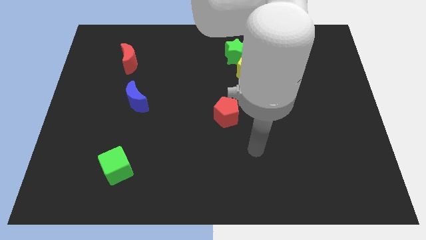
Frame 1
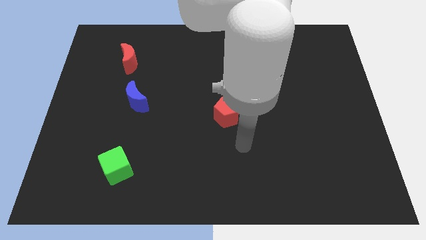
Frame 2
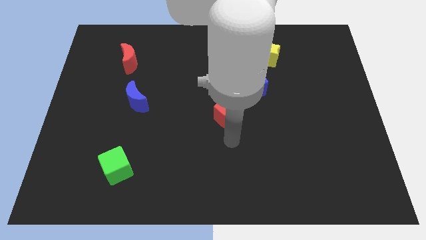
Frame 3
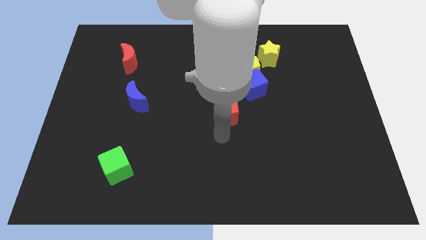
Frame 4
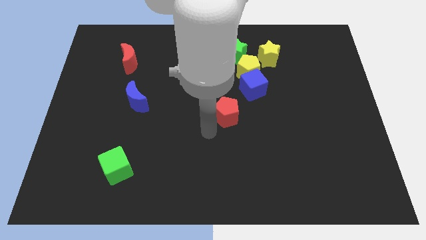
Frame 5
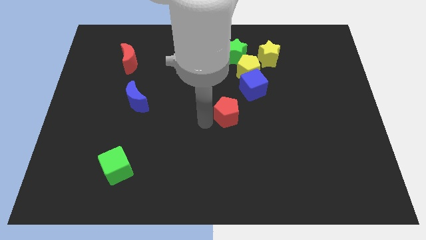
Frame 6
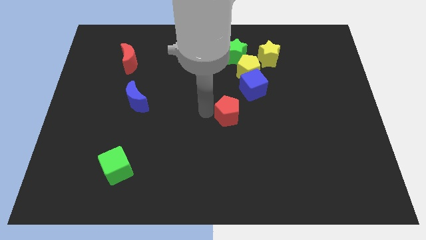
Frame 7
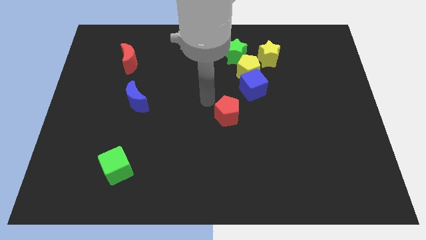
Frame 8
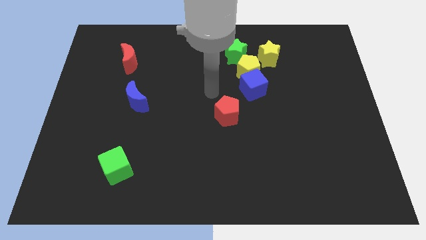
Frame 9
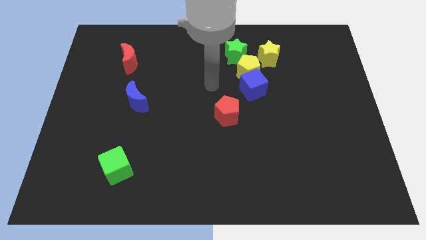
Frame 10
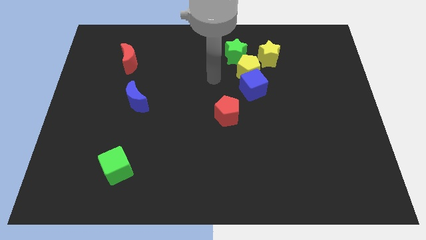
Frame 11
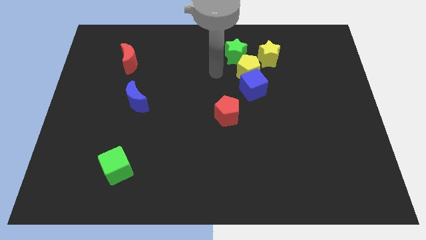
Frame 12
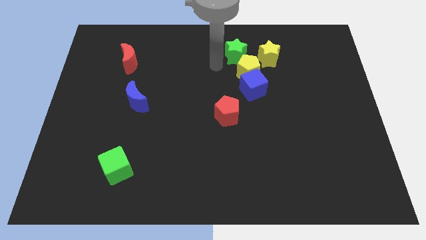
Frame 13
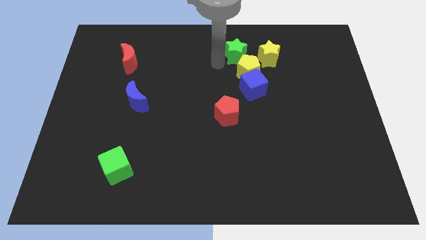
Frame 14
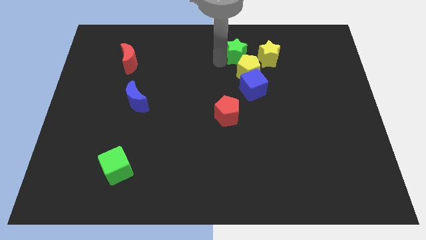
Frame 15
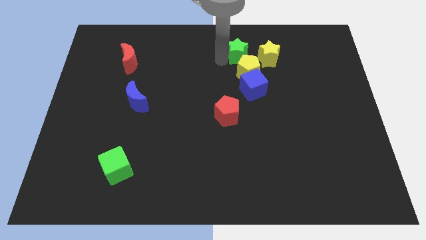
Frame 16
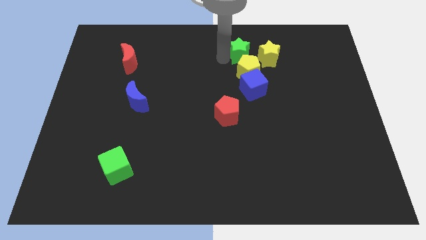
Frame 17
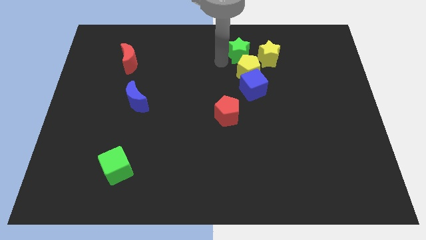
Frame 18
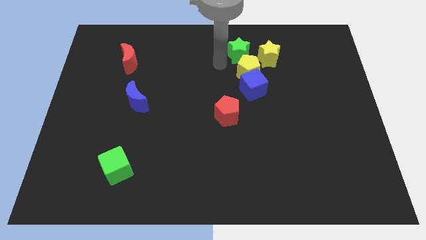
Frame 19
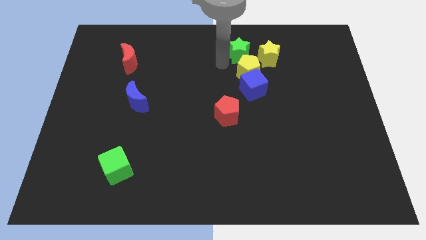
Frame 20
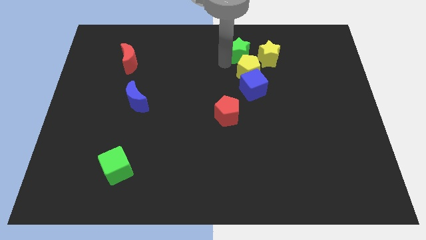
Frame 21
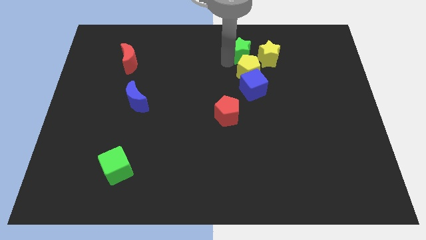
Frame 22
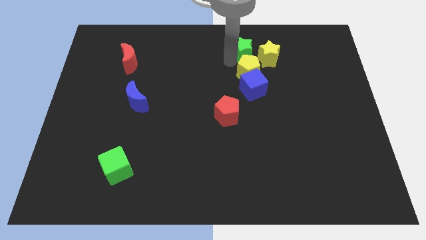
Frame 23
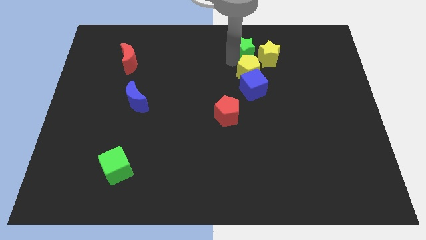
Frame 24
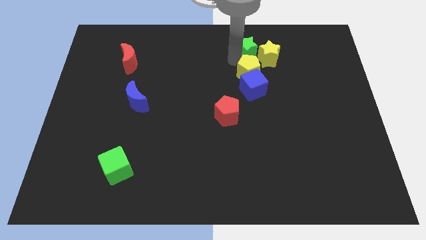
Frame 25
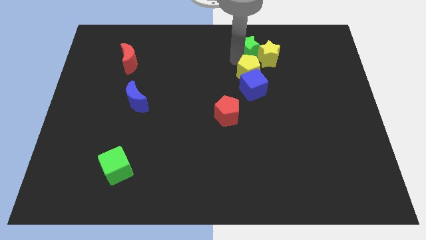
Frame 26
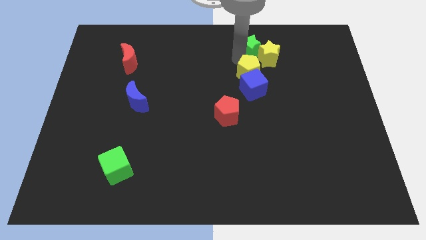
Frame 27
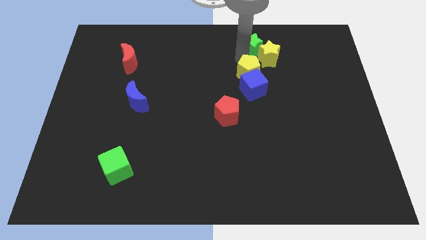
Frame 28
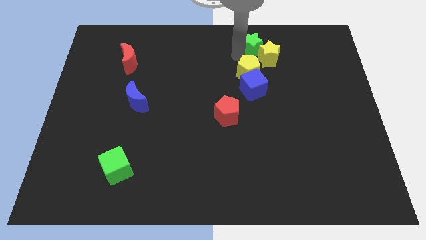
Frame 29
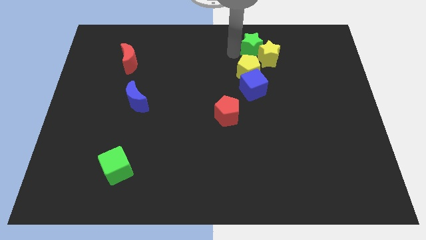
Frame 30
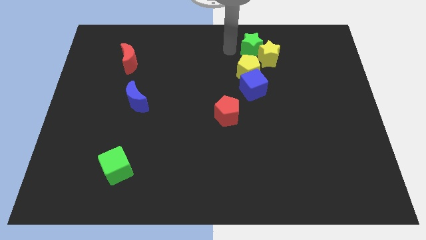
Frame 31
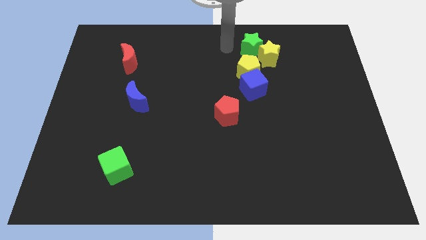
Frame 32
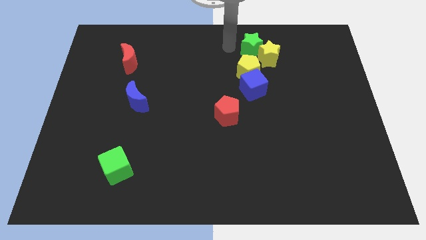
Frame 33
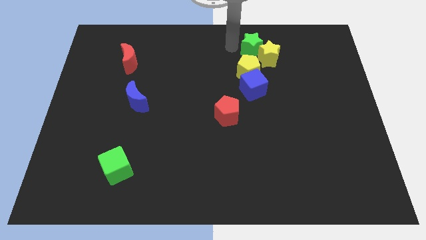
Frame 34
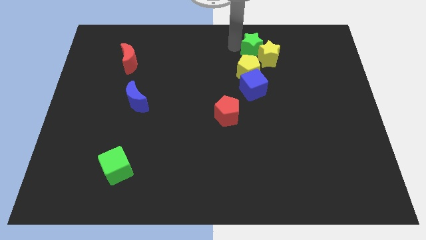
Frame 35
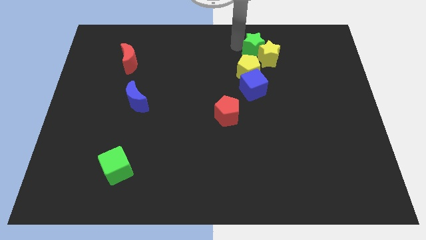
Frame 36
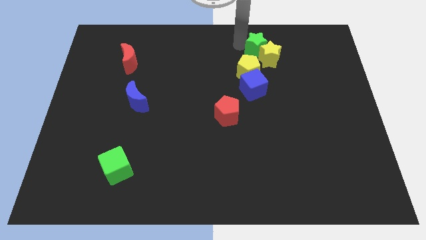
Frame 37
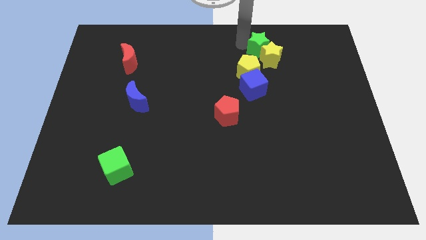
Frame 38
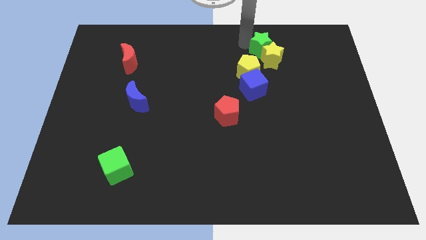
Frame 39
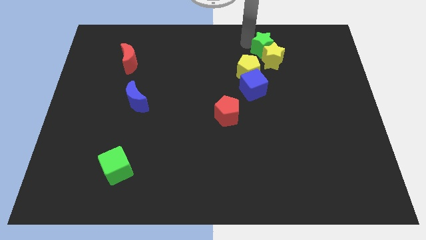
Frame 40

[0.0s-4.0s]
move the green star a little bit right

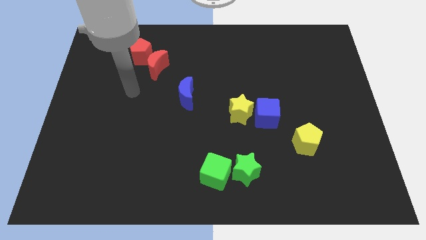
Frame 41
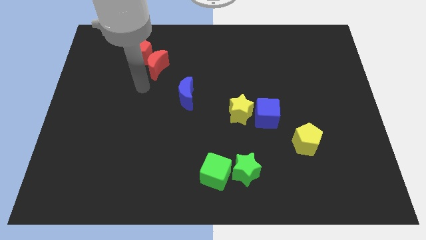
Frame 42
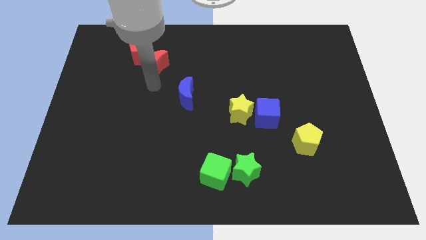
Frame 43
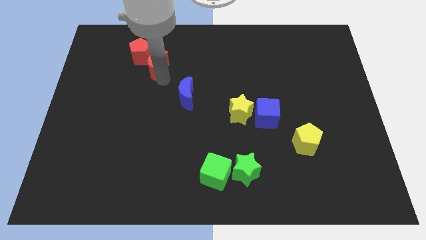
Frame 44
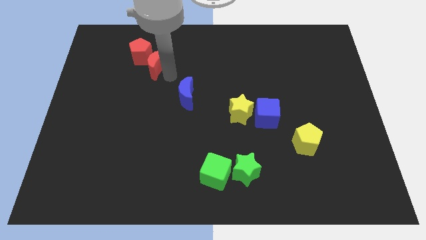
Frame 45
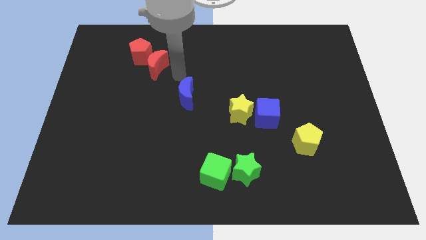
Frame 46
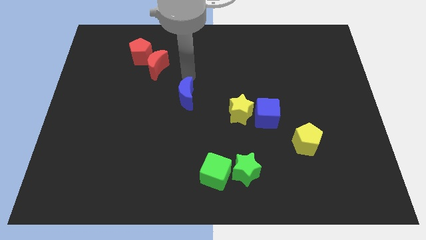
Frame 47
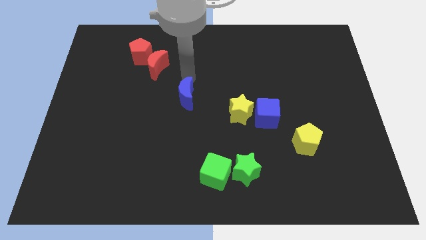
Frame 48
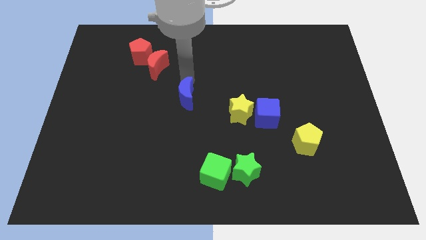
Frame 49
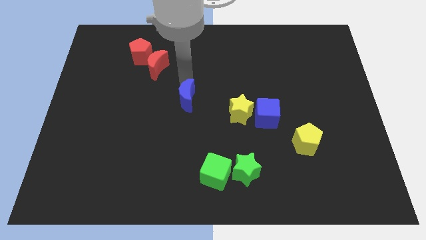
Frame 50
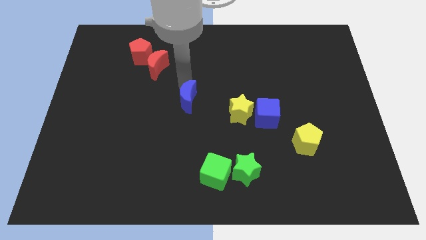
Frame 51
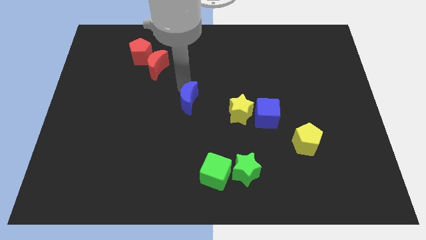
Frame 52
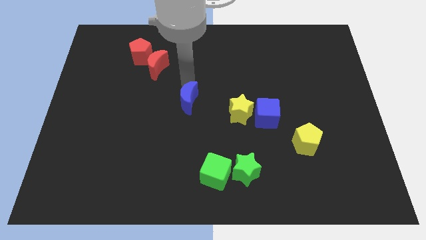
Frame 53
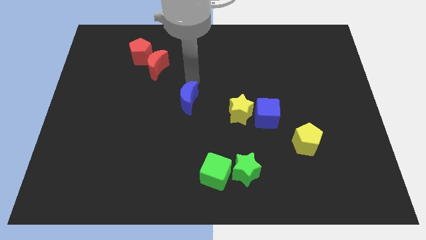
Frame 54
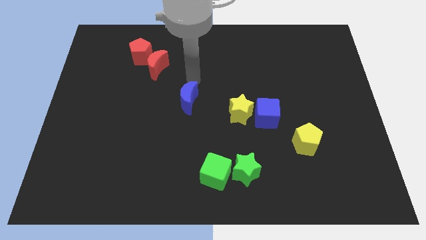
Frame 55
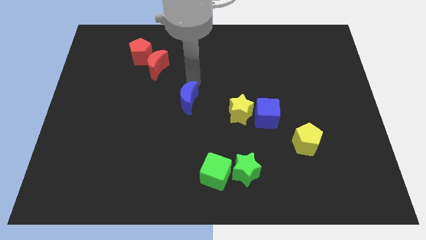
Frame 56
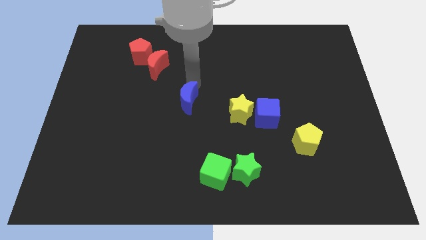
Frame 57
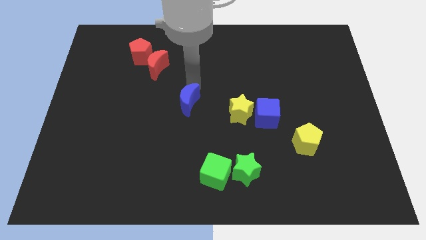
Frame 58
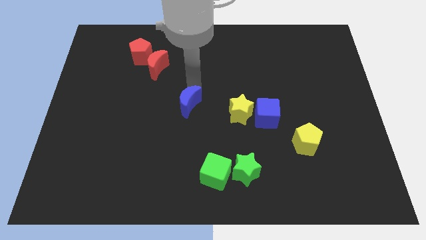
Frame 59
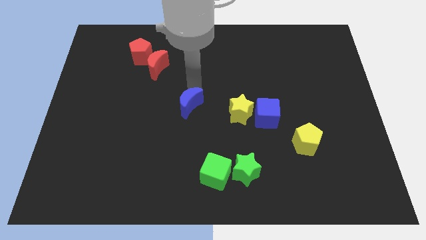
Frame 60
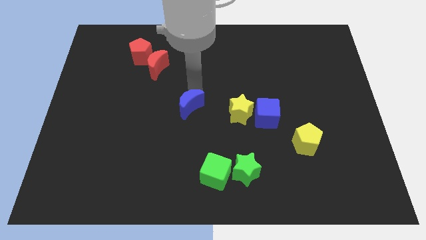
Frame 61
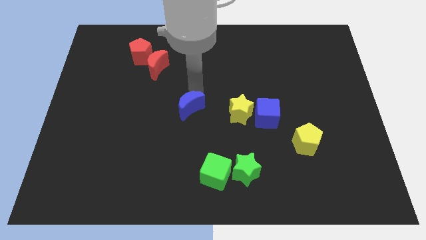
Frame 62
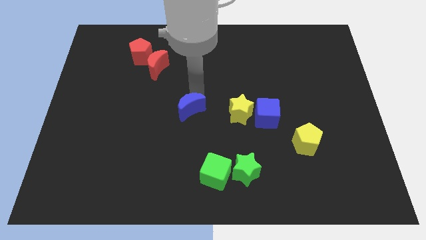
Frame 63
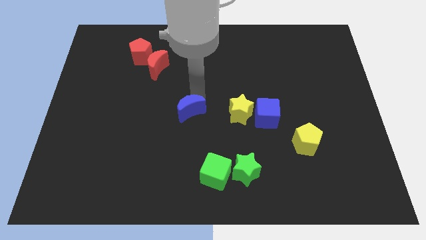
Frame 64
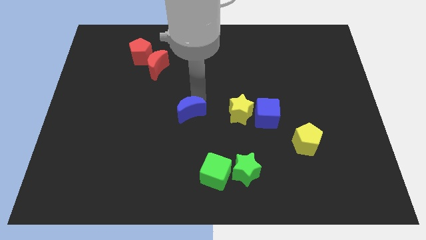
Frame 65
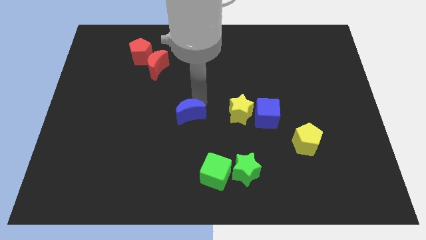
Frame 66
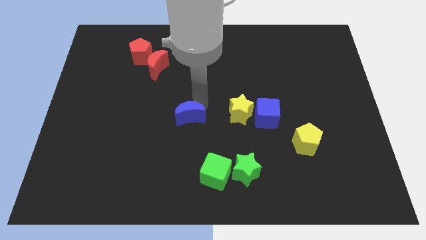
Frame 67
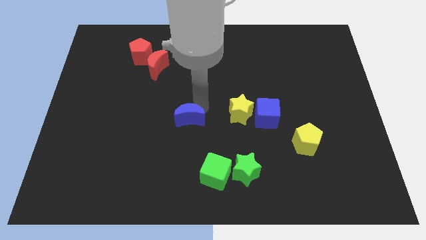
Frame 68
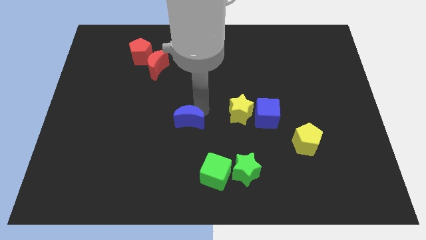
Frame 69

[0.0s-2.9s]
slightly slide the blue moon downwards

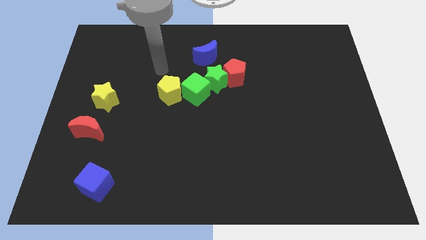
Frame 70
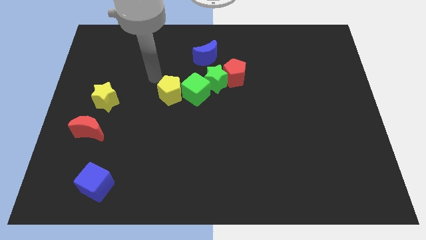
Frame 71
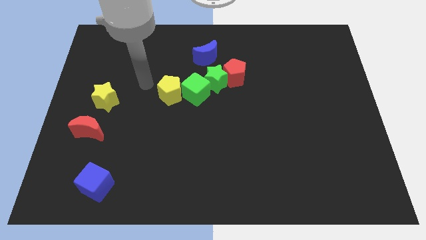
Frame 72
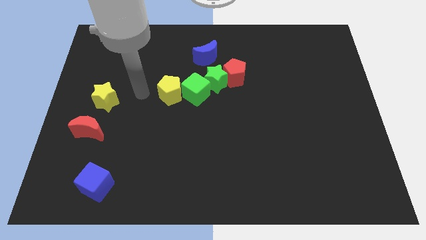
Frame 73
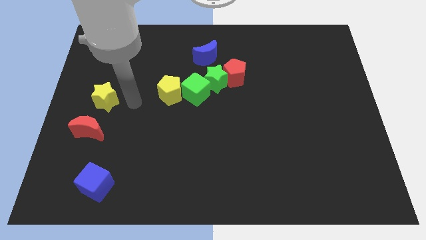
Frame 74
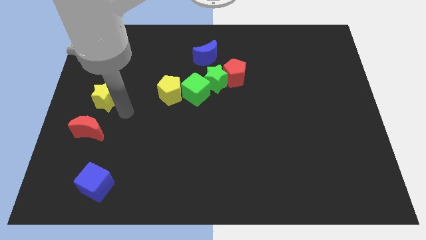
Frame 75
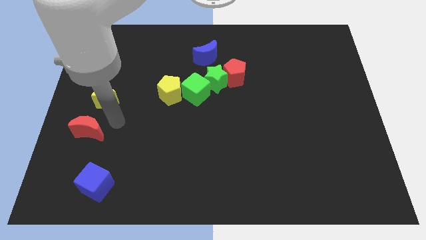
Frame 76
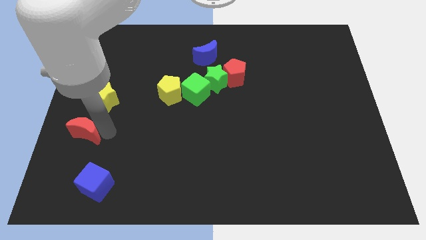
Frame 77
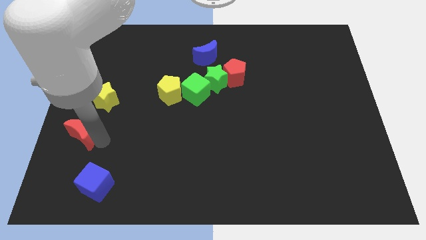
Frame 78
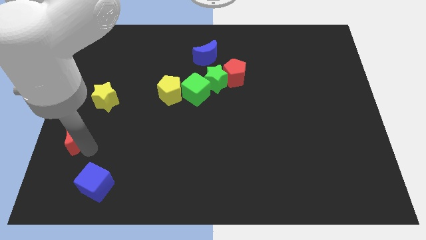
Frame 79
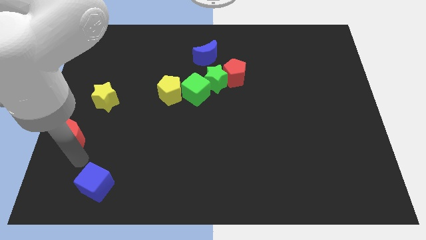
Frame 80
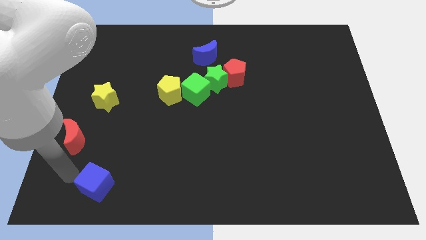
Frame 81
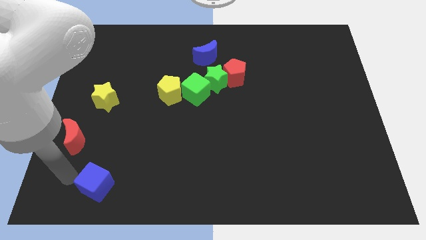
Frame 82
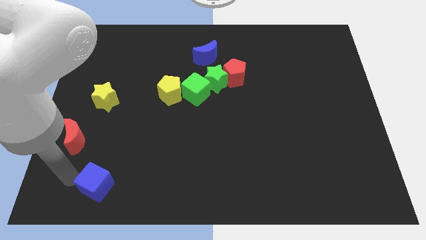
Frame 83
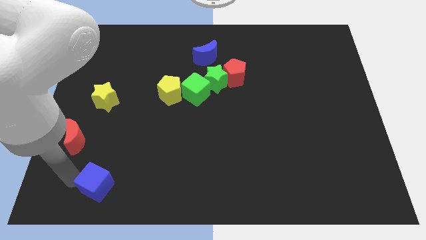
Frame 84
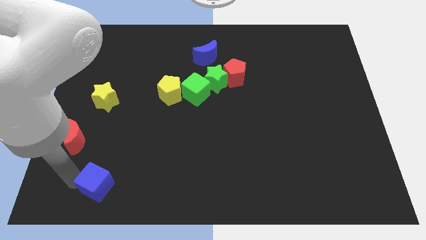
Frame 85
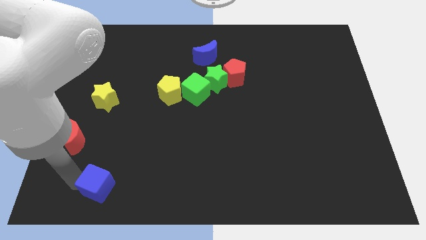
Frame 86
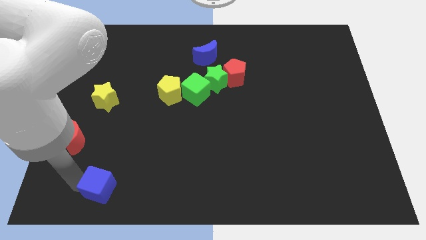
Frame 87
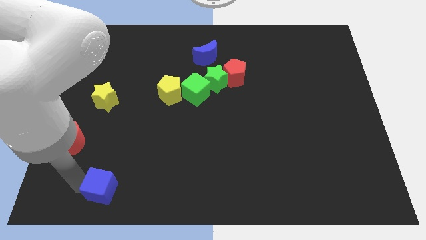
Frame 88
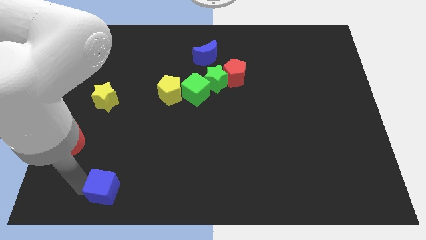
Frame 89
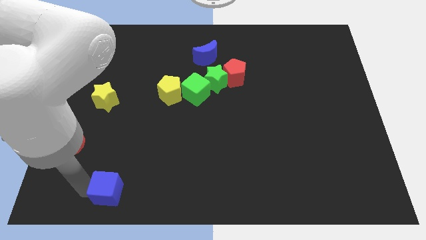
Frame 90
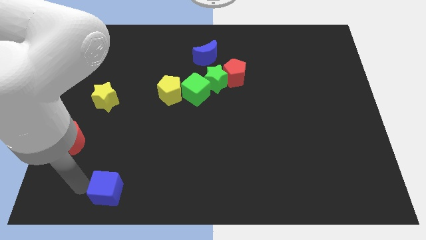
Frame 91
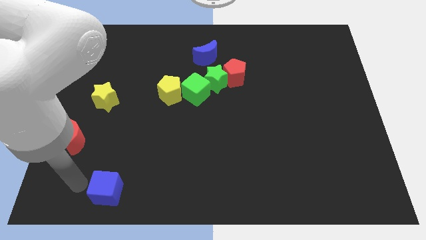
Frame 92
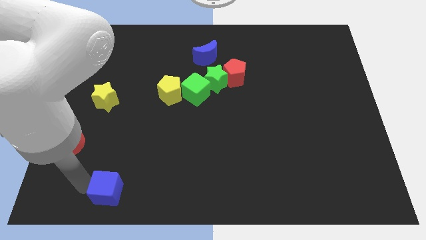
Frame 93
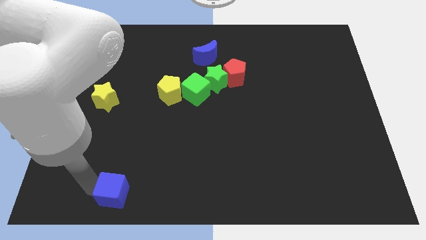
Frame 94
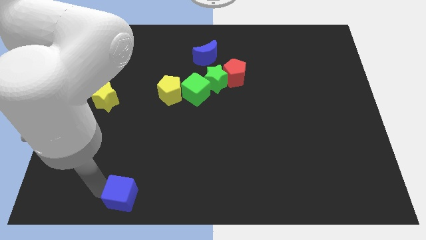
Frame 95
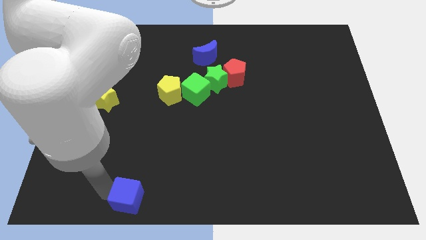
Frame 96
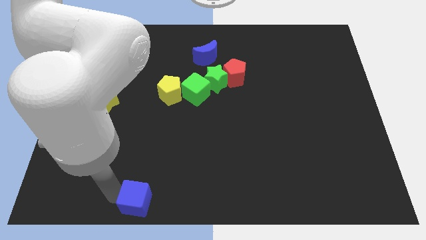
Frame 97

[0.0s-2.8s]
slightly slide the blue cube right
